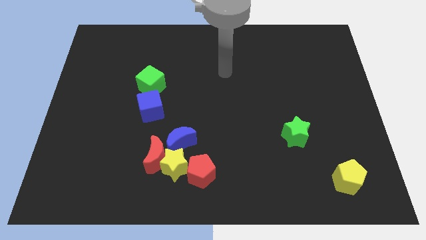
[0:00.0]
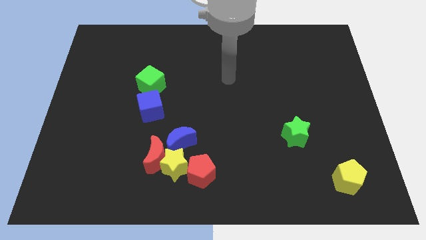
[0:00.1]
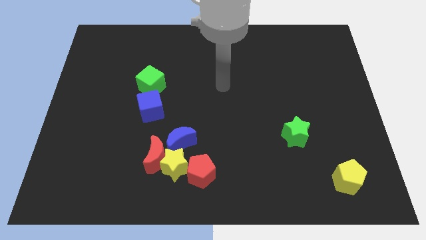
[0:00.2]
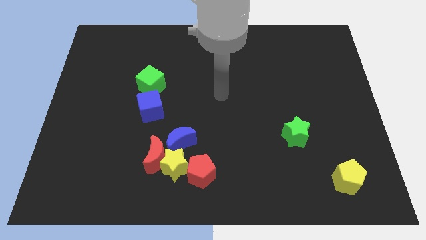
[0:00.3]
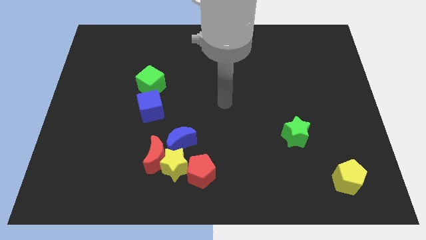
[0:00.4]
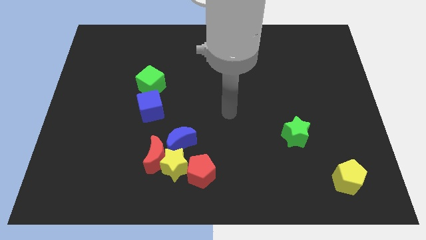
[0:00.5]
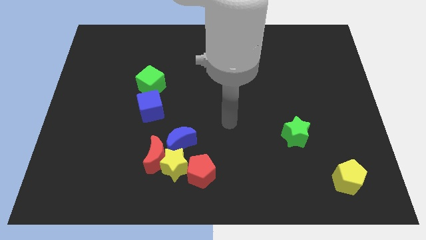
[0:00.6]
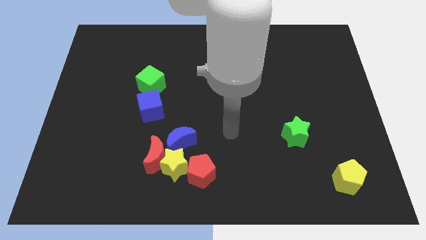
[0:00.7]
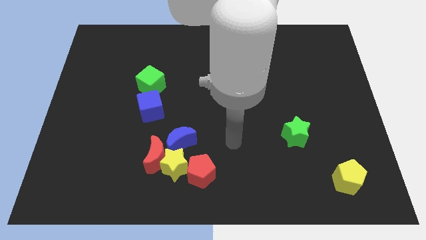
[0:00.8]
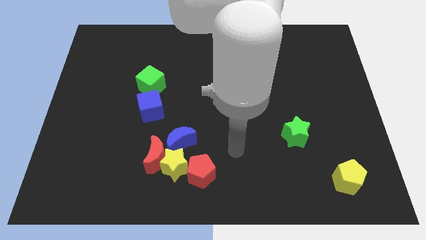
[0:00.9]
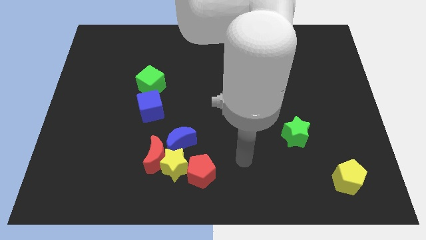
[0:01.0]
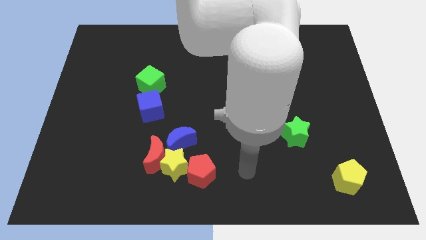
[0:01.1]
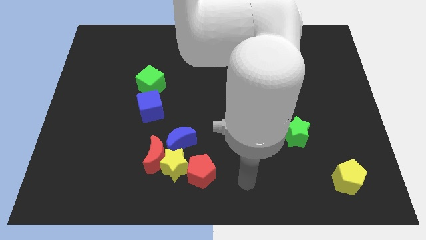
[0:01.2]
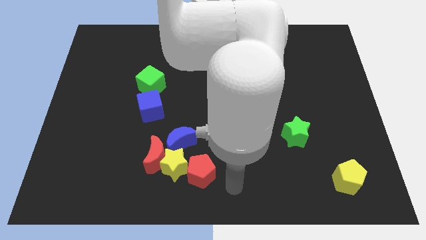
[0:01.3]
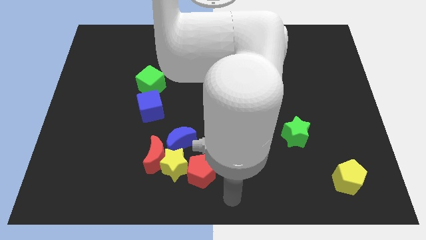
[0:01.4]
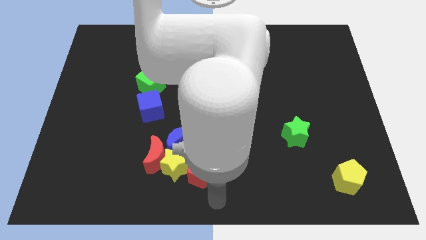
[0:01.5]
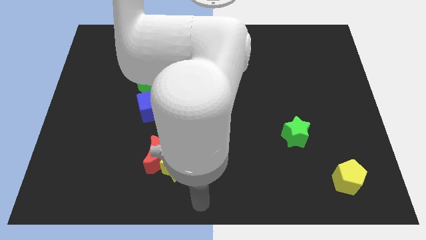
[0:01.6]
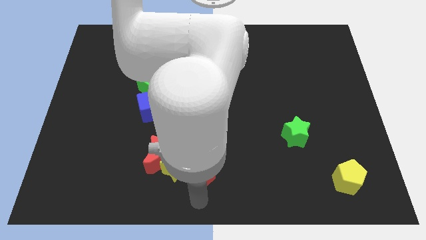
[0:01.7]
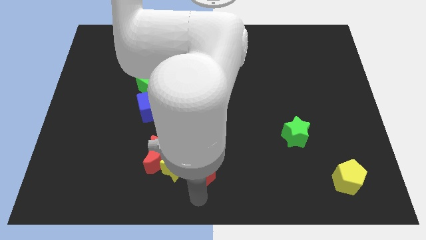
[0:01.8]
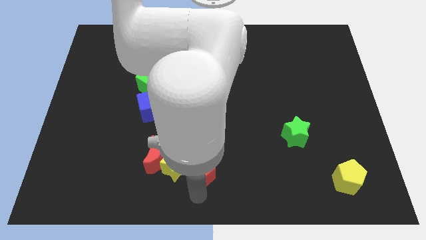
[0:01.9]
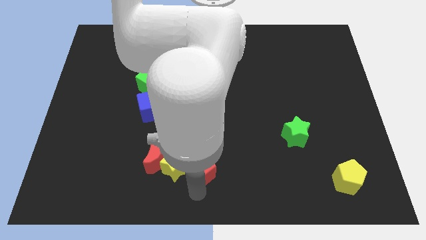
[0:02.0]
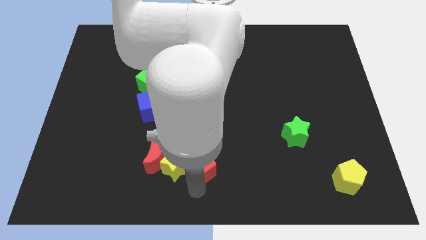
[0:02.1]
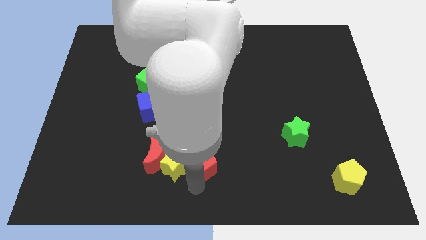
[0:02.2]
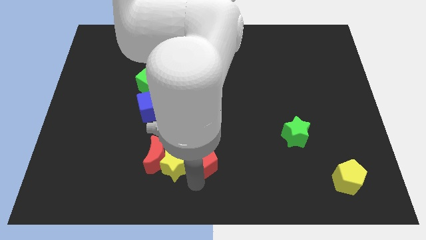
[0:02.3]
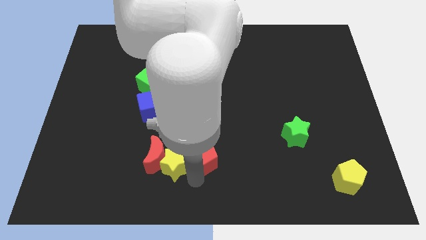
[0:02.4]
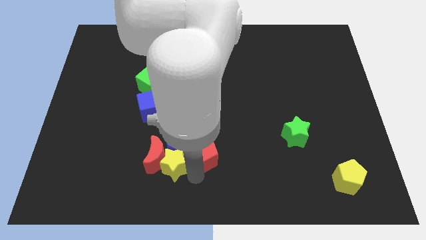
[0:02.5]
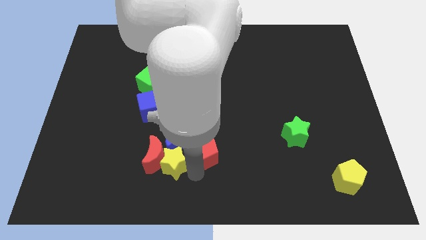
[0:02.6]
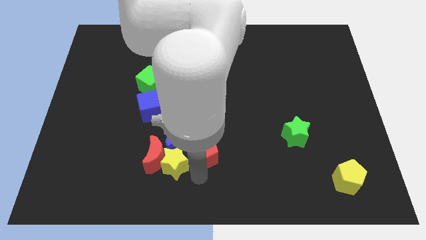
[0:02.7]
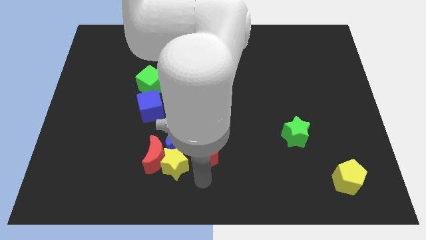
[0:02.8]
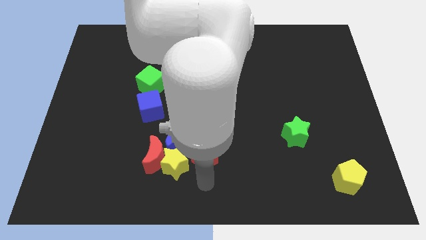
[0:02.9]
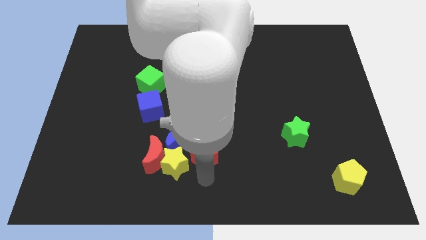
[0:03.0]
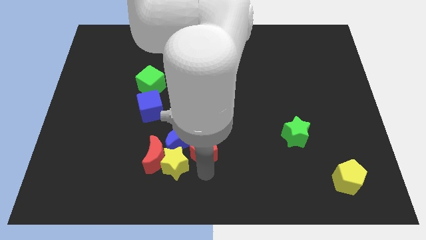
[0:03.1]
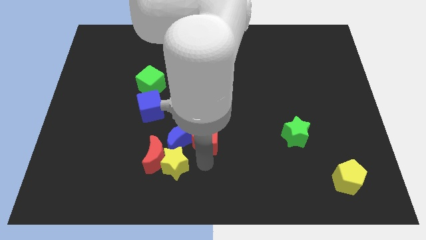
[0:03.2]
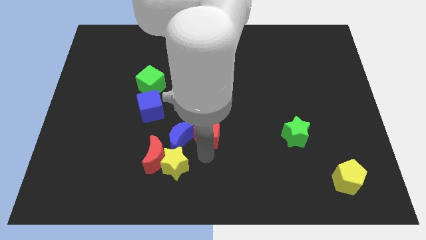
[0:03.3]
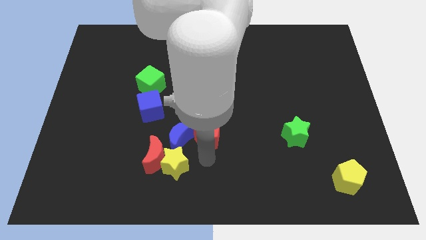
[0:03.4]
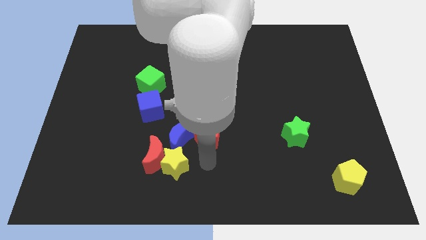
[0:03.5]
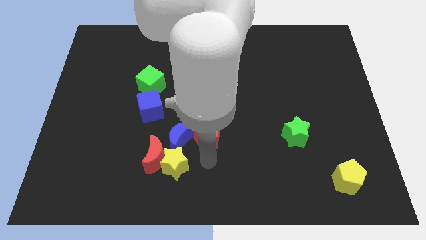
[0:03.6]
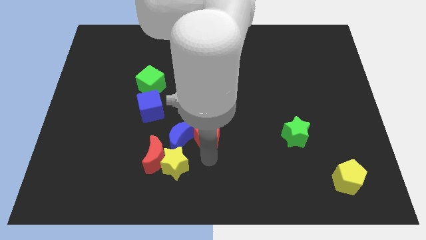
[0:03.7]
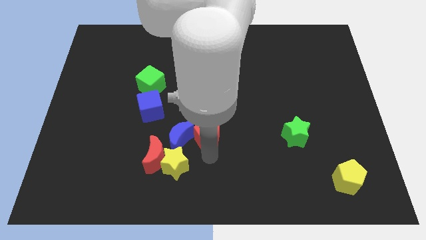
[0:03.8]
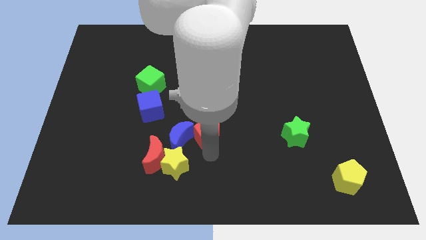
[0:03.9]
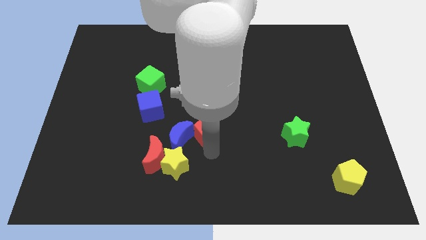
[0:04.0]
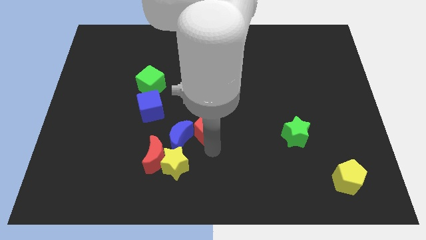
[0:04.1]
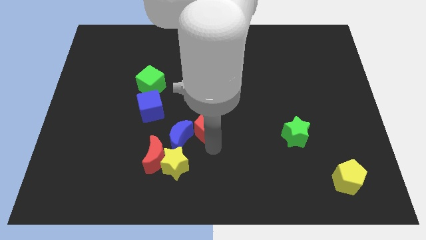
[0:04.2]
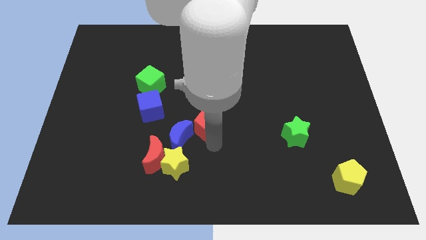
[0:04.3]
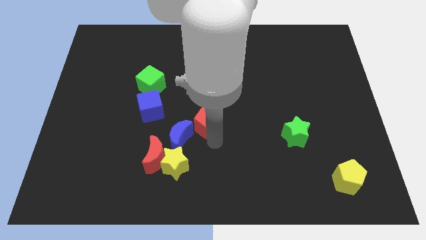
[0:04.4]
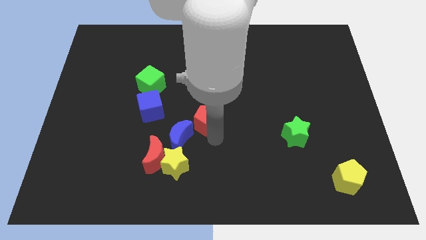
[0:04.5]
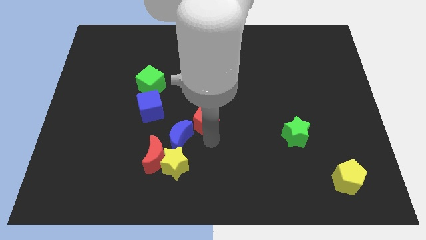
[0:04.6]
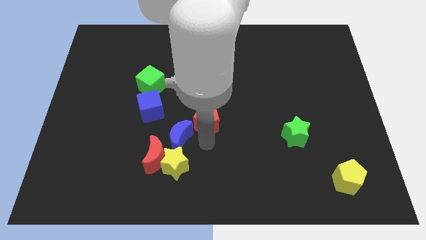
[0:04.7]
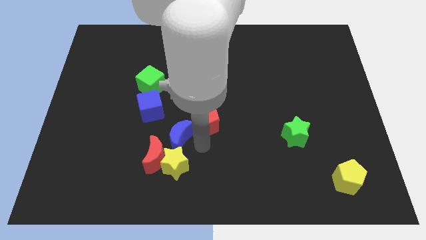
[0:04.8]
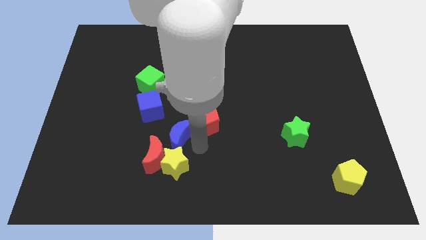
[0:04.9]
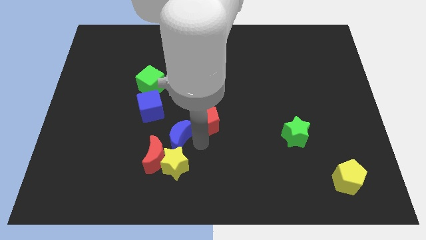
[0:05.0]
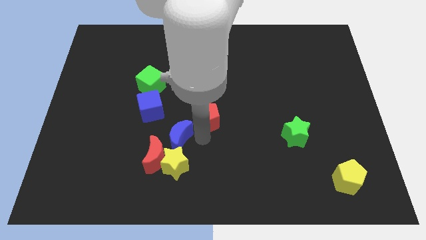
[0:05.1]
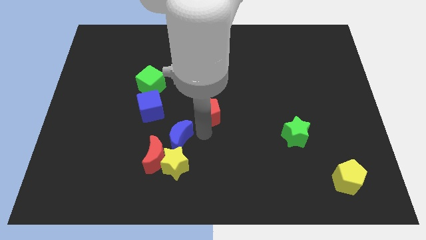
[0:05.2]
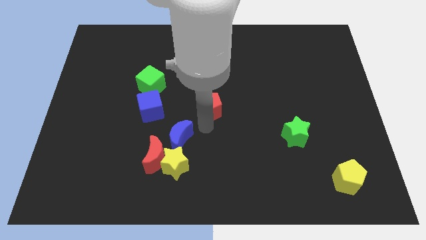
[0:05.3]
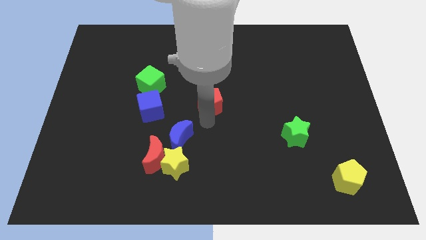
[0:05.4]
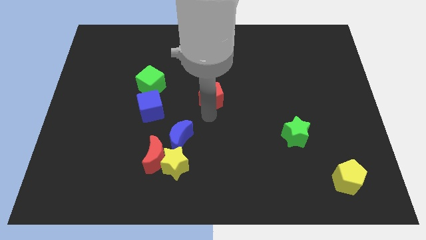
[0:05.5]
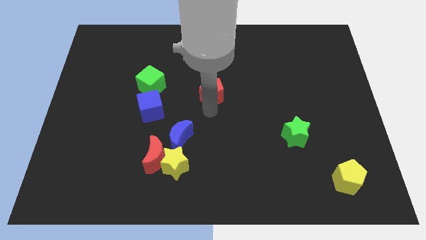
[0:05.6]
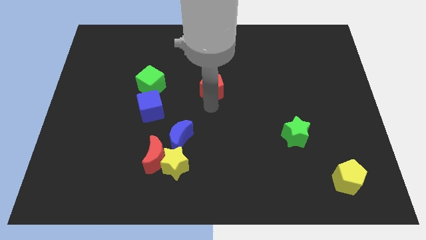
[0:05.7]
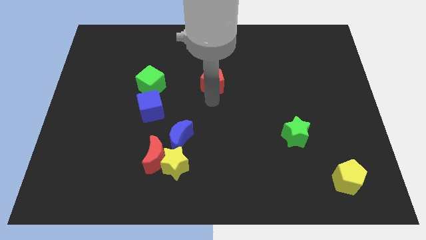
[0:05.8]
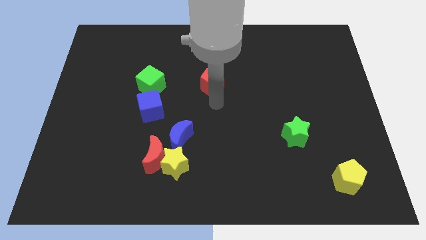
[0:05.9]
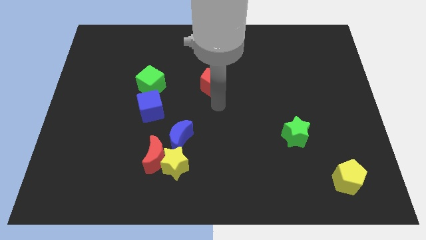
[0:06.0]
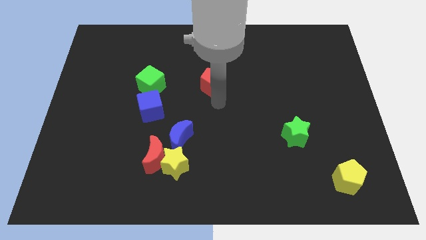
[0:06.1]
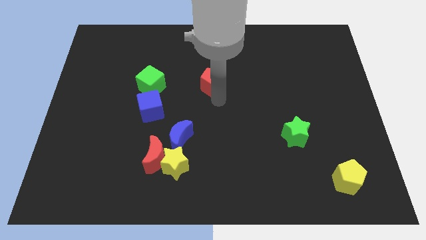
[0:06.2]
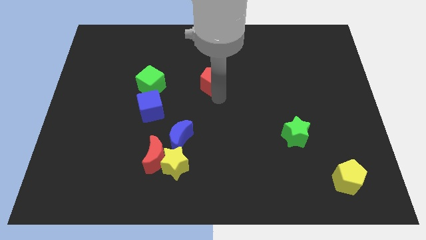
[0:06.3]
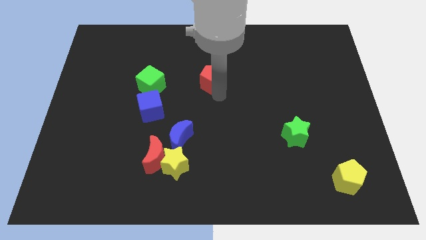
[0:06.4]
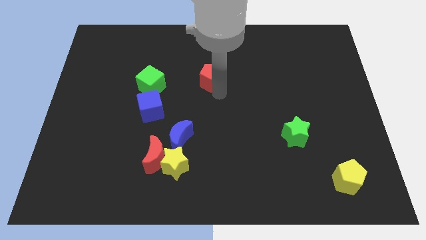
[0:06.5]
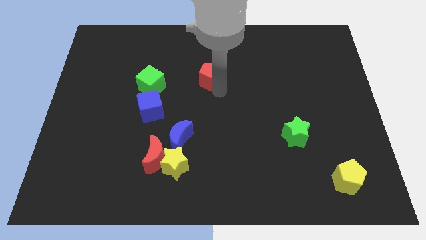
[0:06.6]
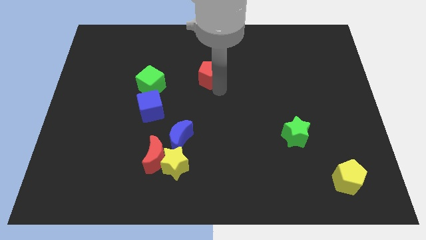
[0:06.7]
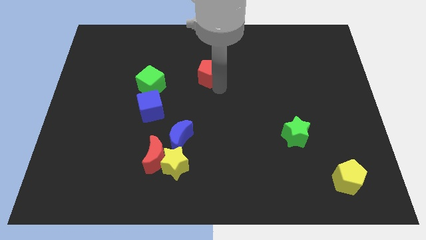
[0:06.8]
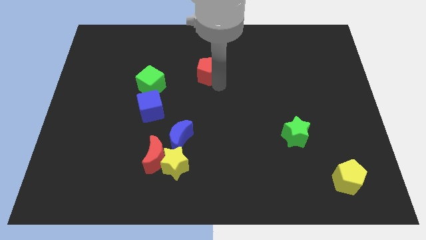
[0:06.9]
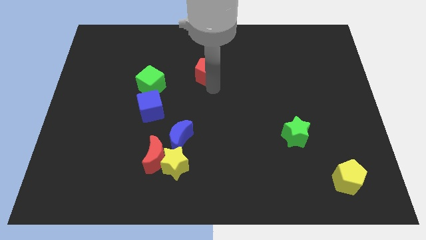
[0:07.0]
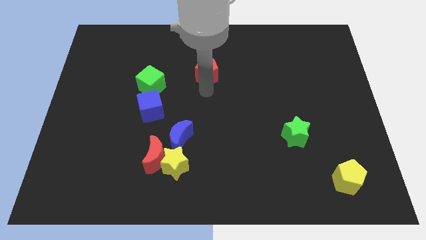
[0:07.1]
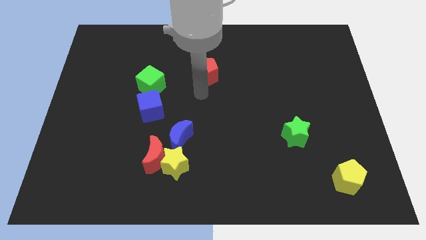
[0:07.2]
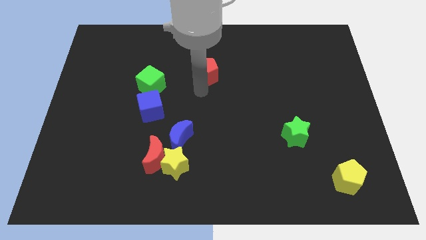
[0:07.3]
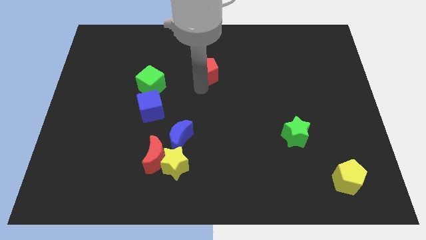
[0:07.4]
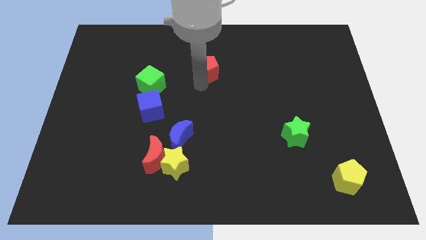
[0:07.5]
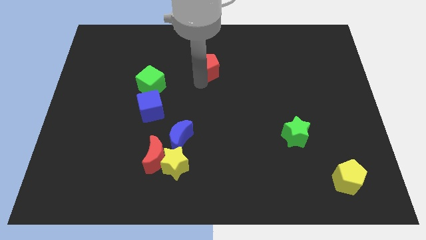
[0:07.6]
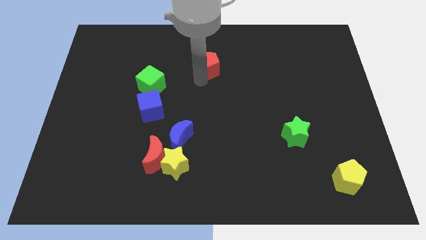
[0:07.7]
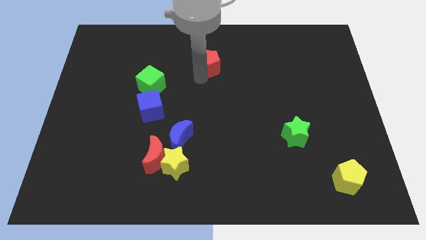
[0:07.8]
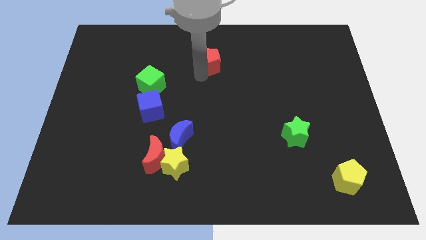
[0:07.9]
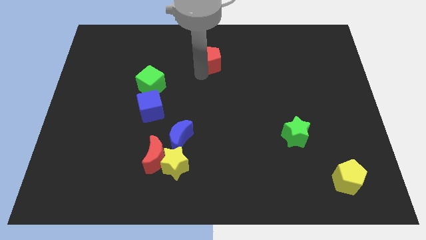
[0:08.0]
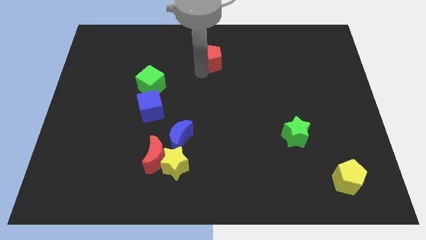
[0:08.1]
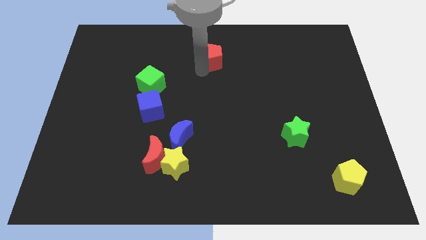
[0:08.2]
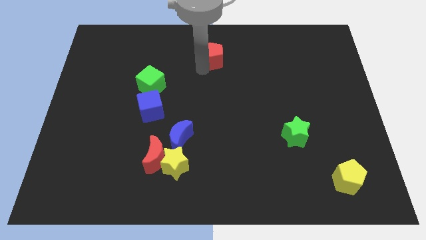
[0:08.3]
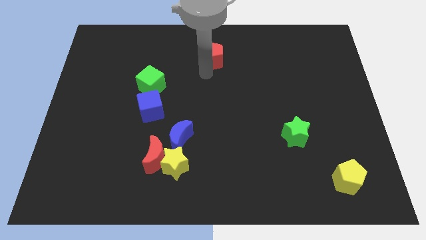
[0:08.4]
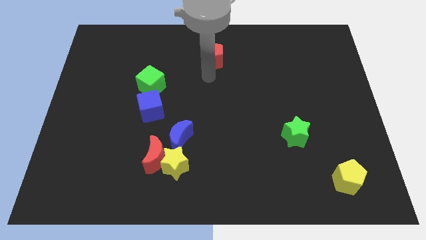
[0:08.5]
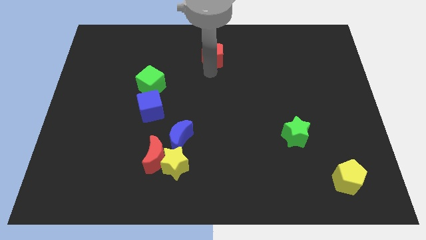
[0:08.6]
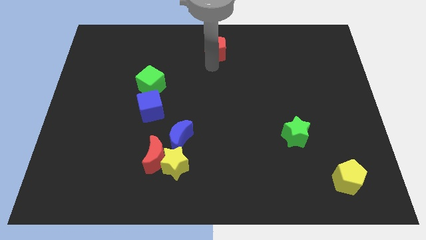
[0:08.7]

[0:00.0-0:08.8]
move the red pentagon to the towards your base
